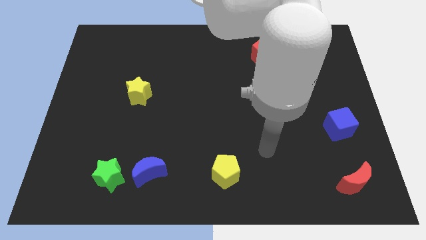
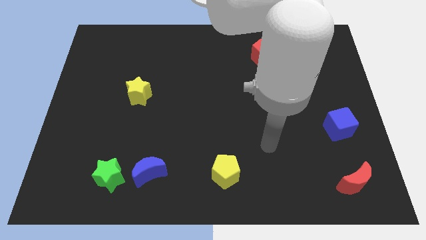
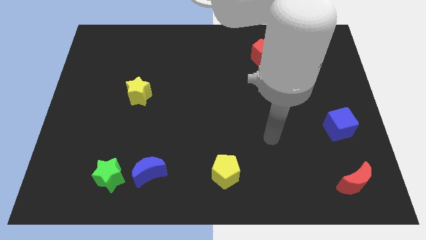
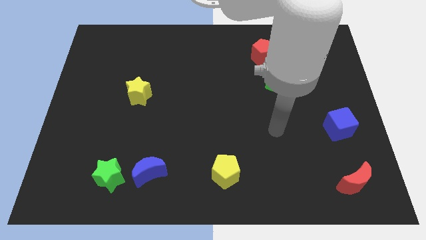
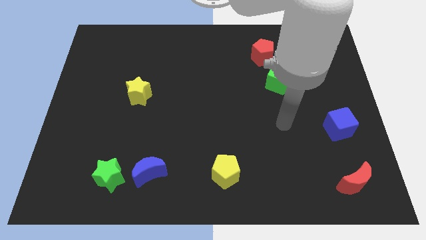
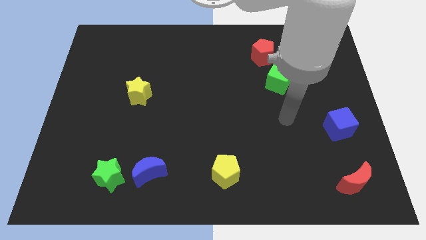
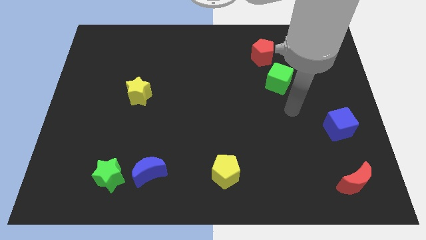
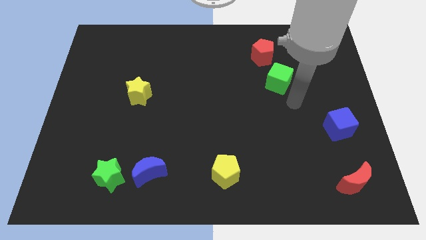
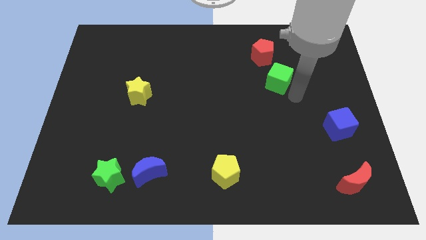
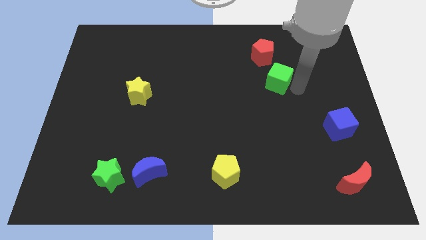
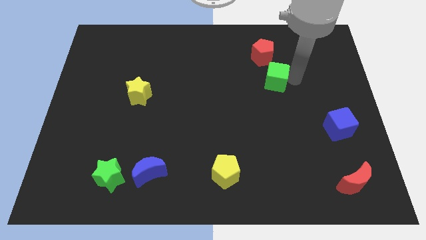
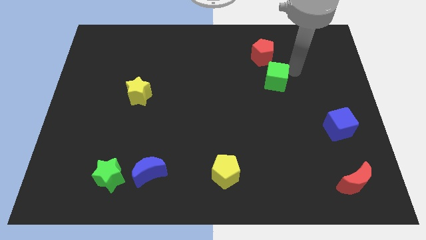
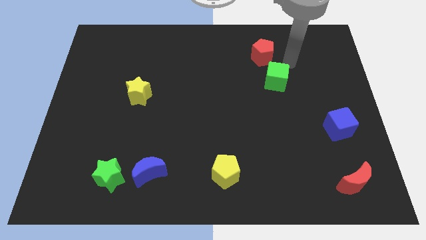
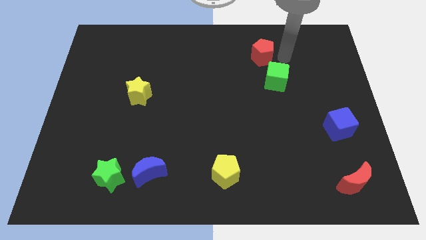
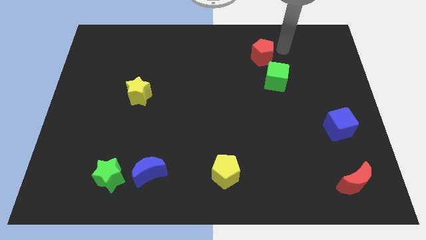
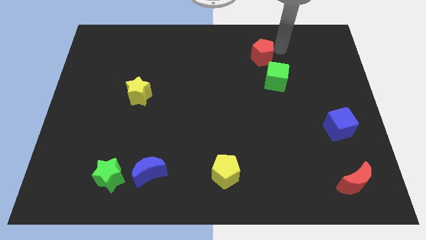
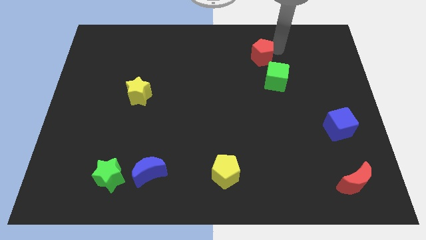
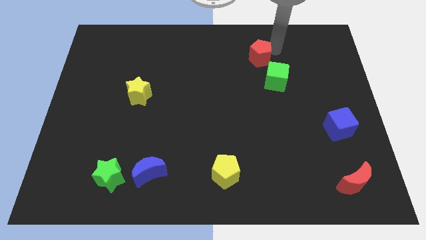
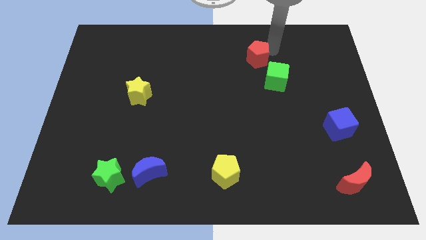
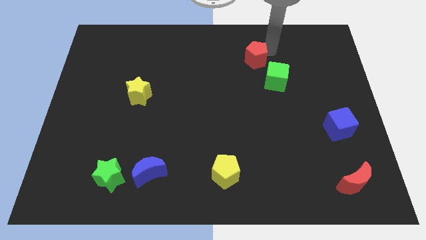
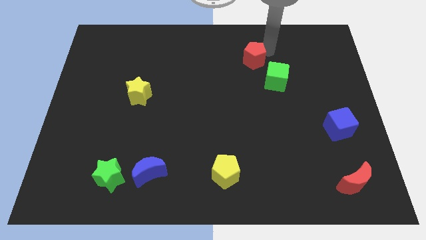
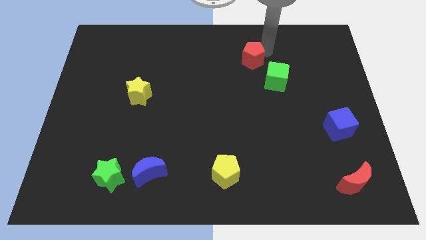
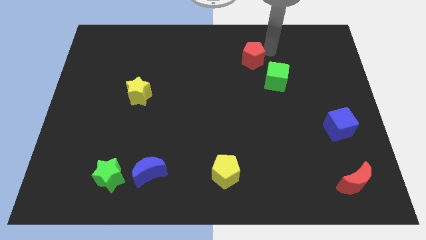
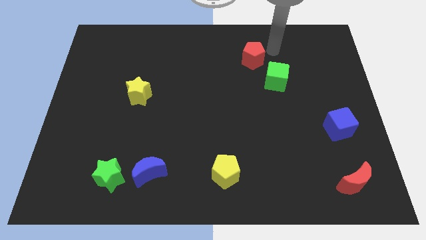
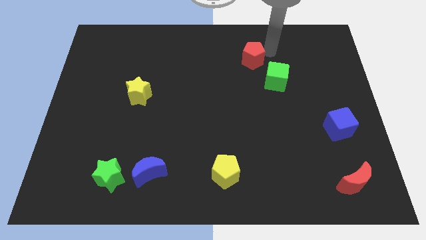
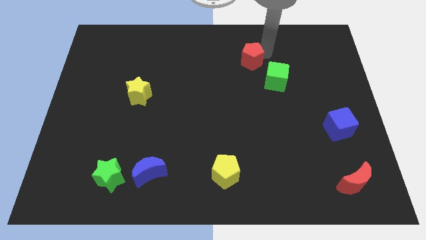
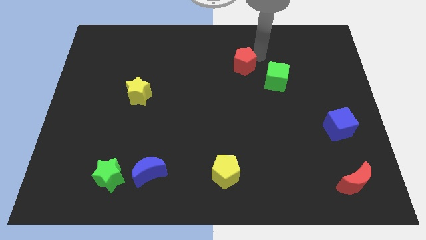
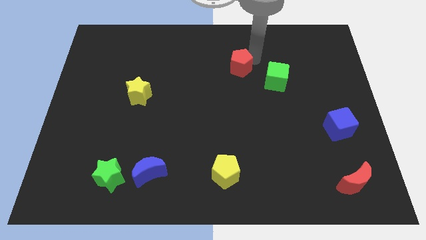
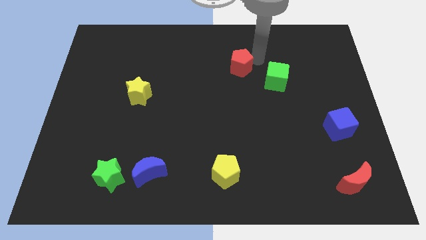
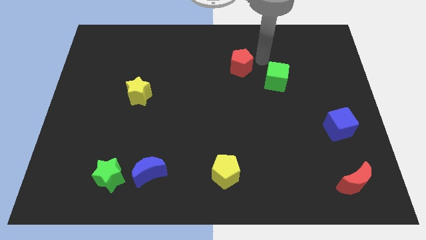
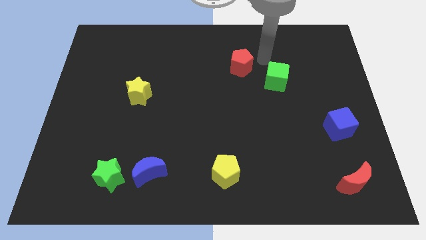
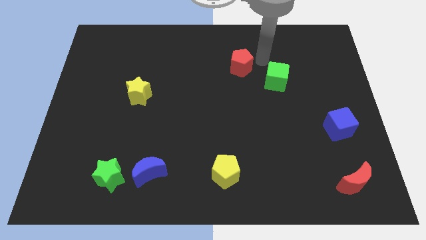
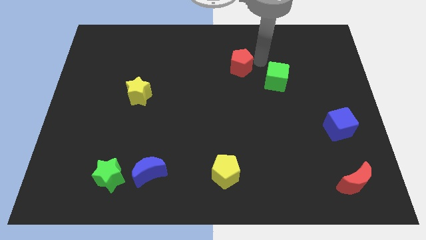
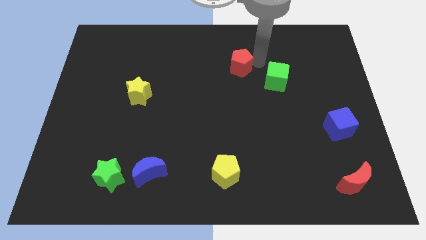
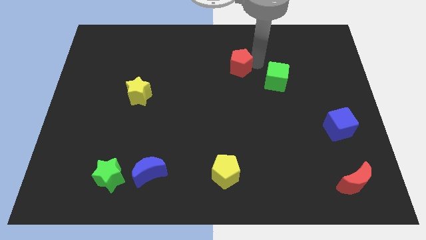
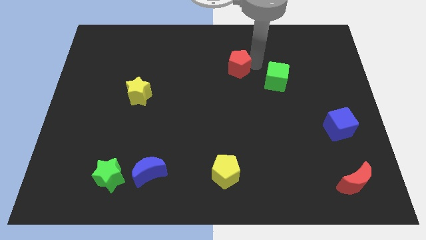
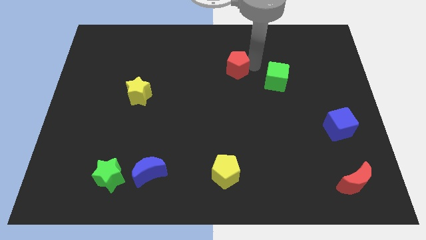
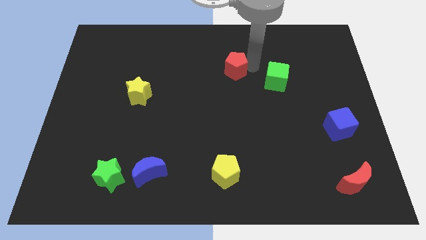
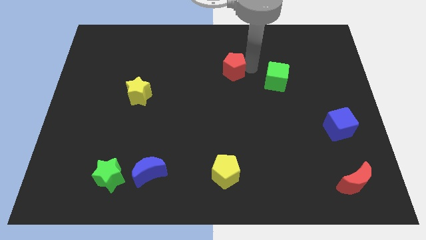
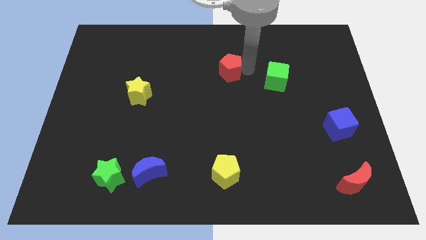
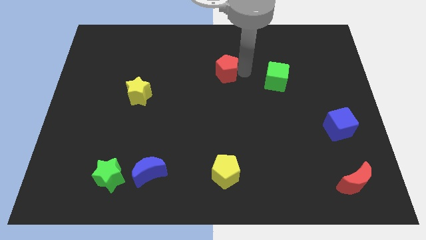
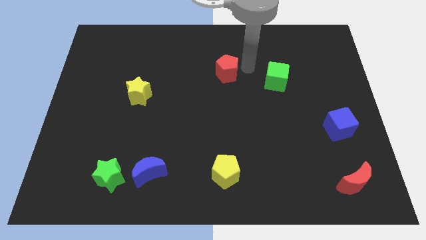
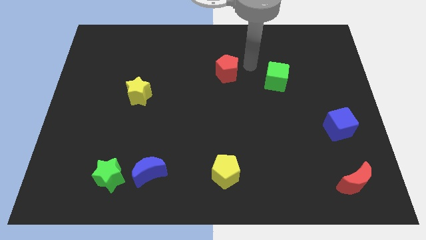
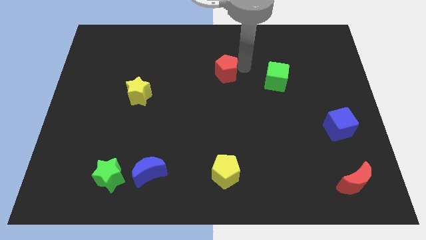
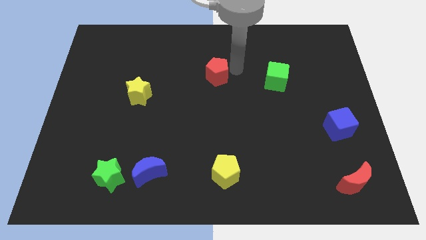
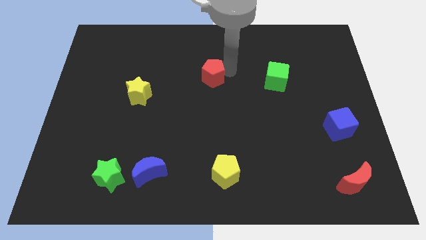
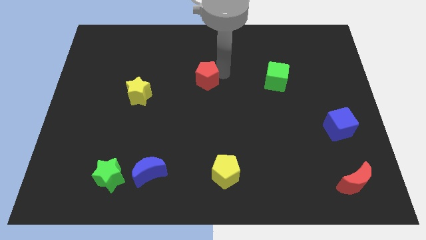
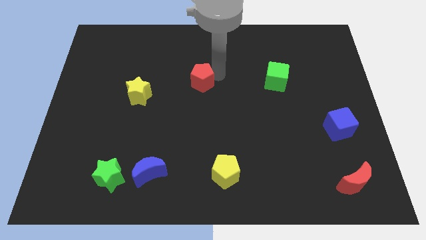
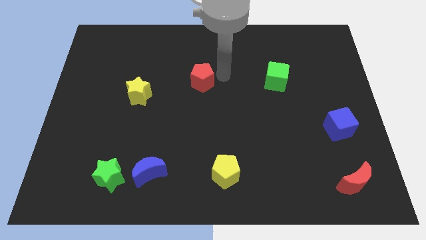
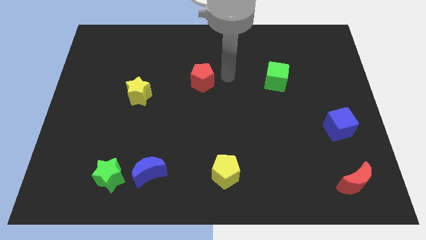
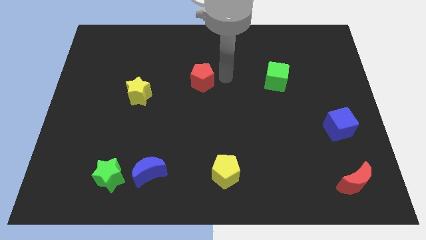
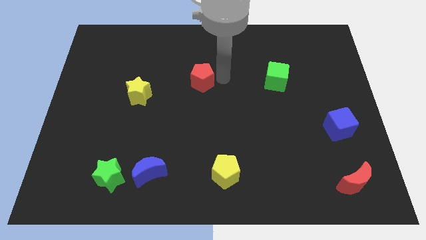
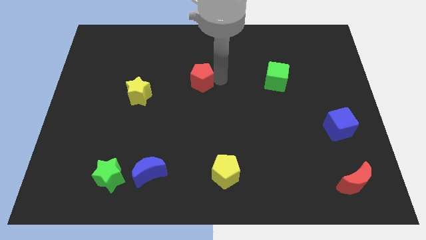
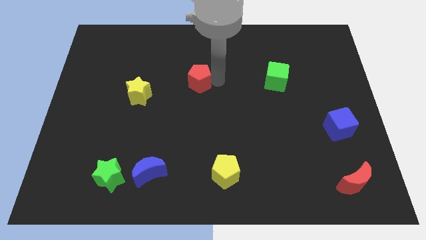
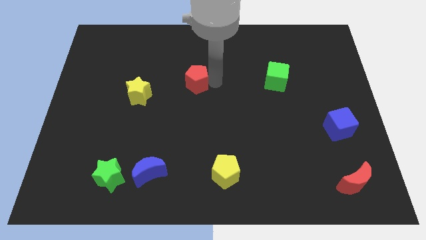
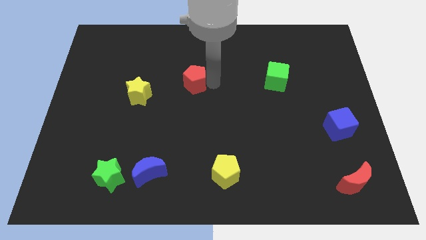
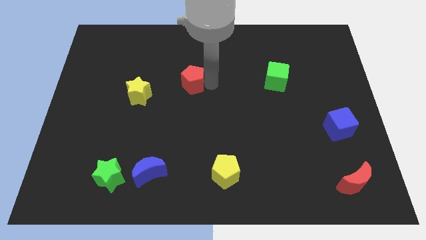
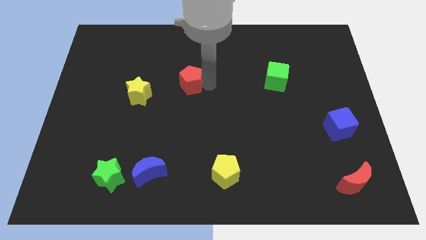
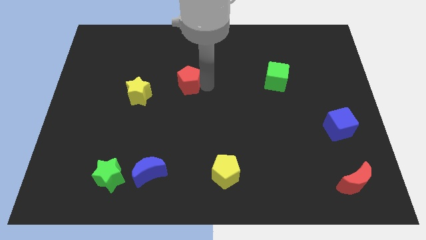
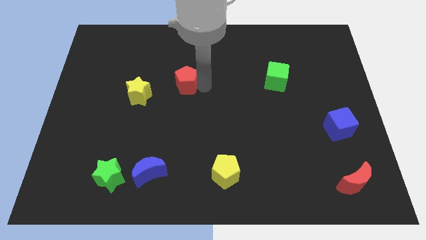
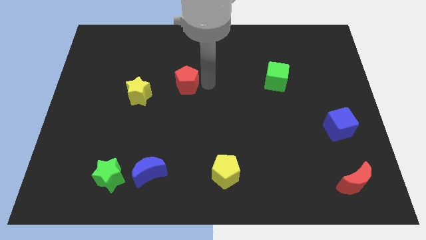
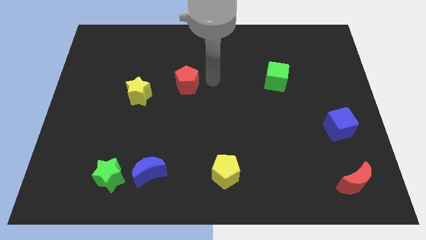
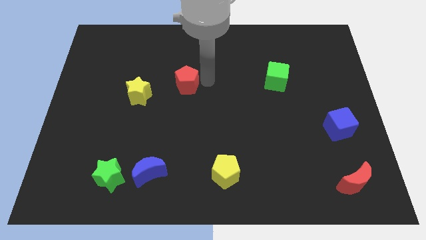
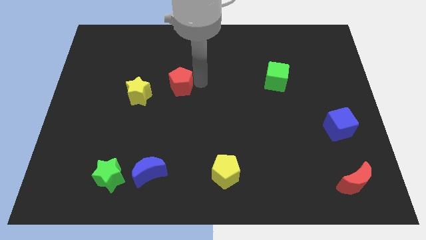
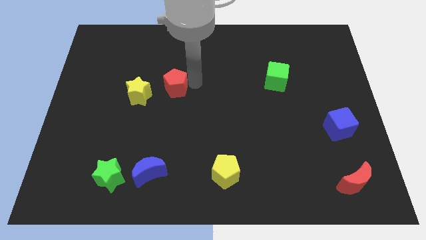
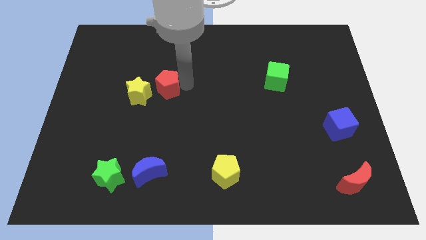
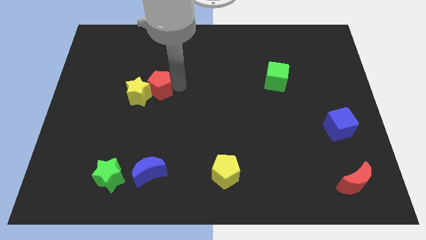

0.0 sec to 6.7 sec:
slide the red pentagon next to the yellow star

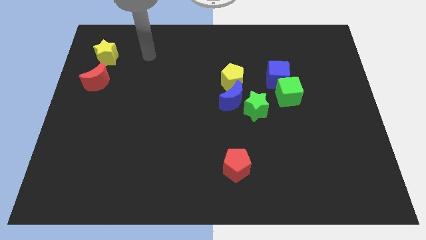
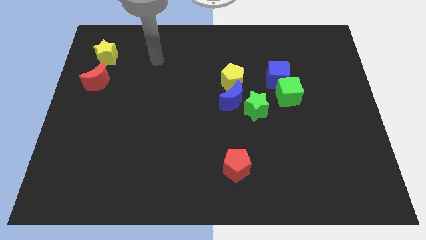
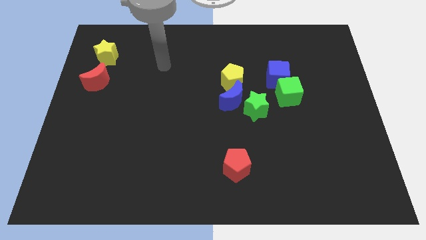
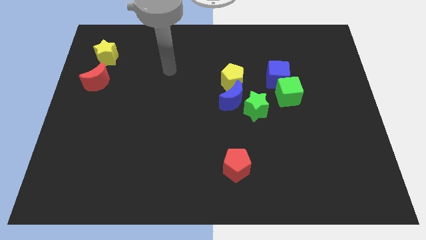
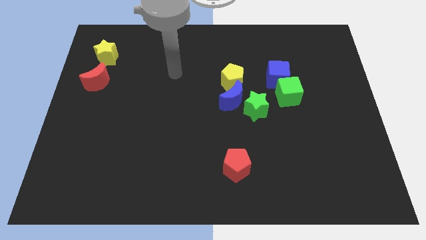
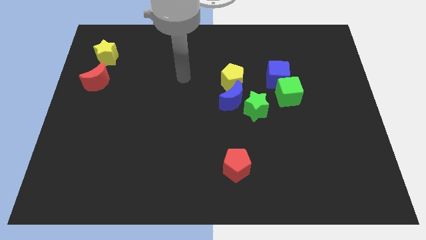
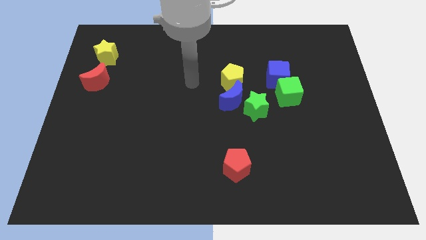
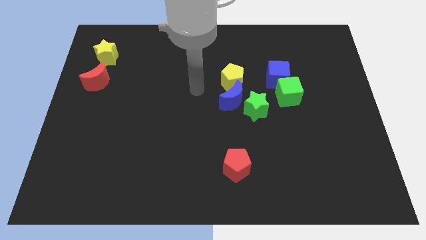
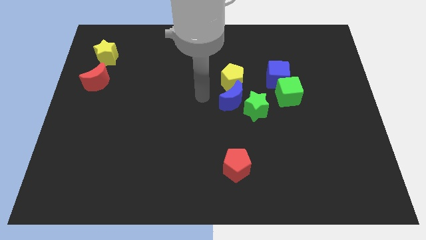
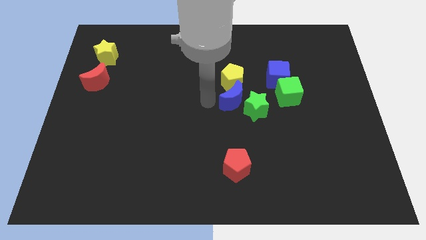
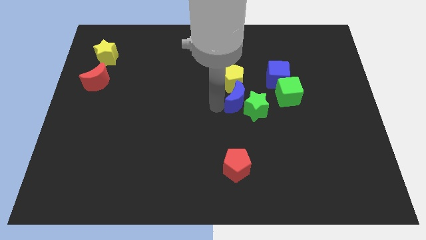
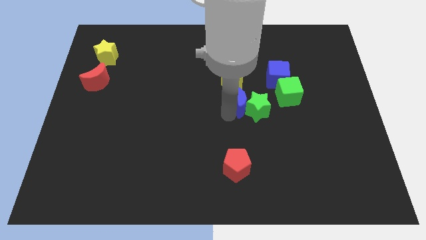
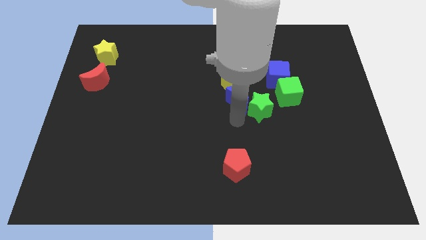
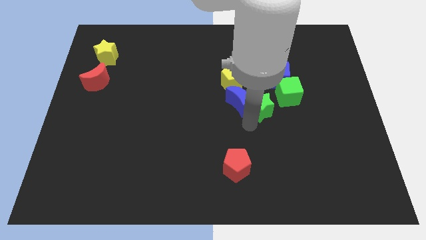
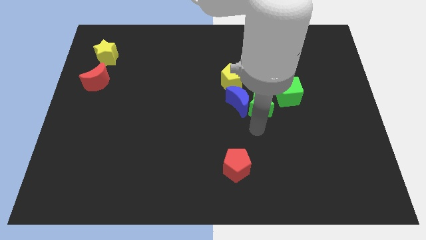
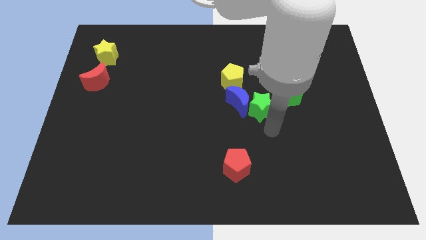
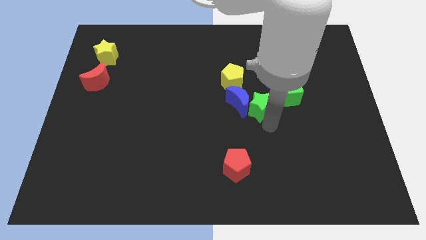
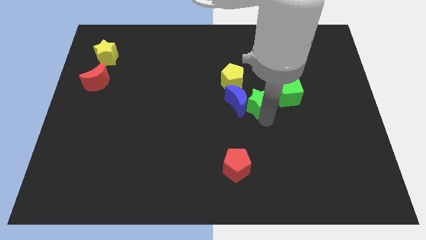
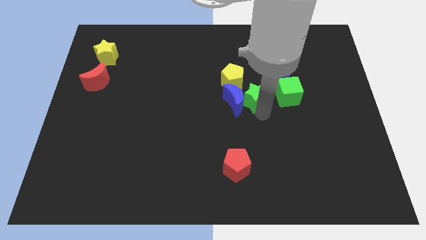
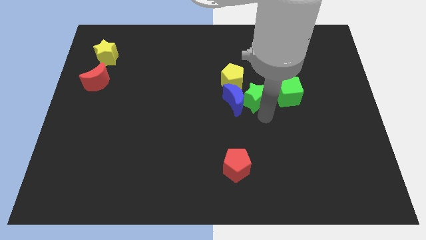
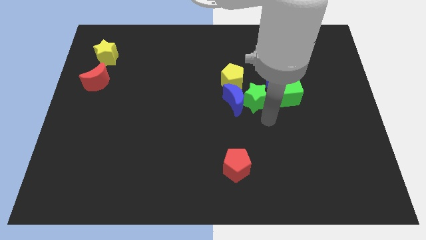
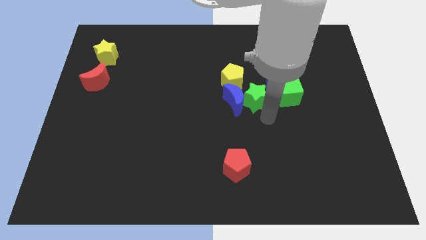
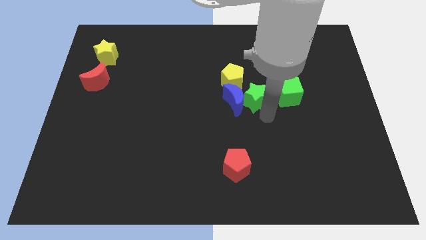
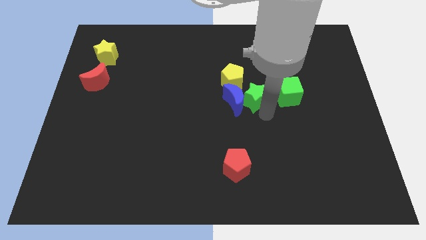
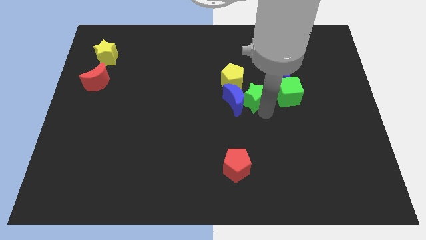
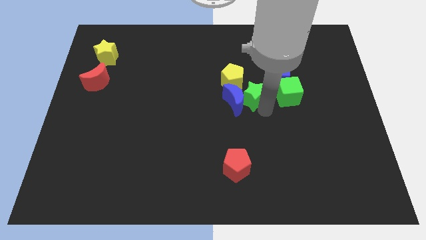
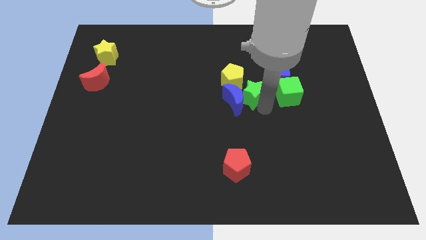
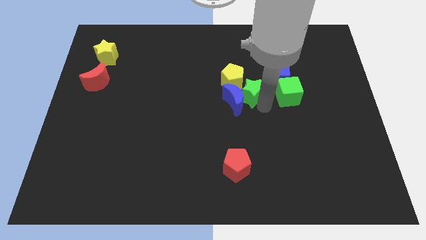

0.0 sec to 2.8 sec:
move the green star towards the yellow pentagon
